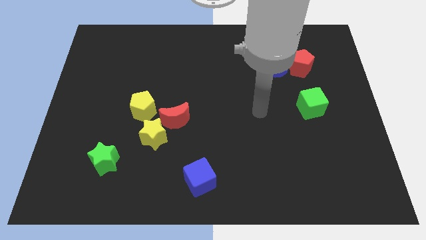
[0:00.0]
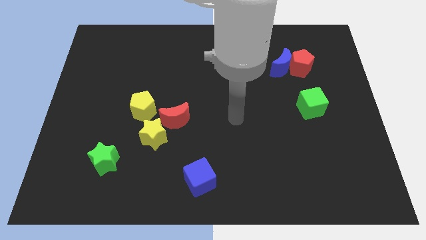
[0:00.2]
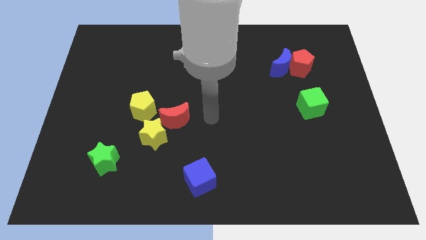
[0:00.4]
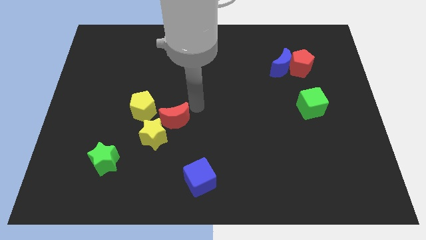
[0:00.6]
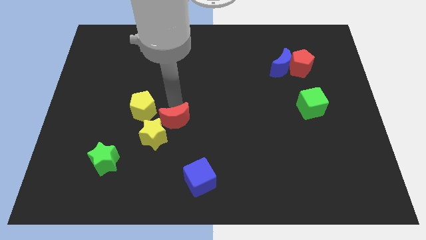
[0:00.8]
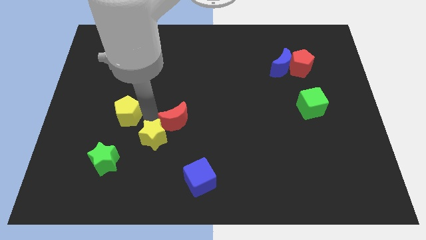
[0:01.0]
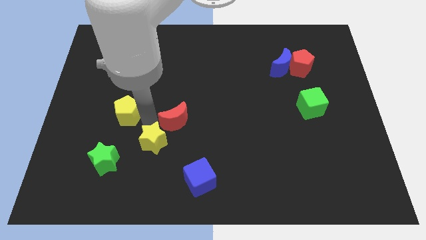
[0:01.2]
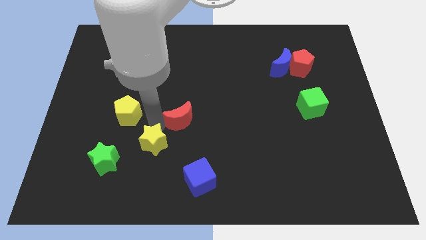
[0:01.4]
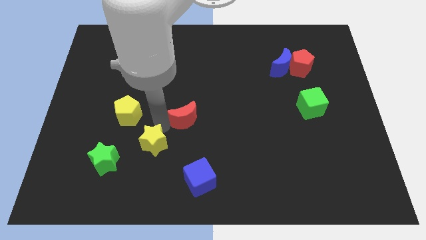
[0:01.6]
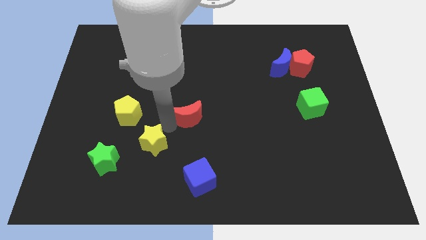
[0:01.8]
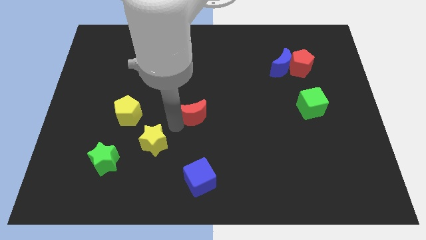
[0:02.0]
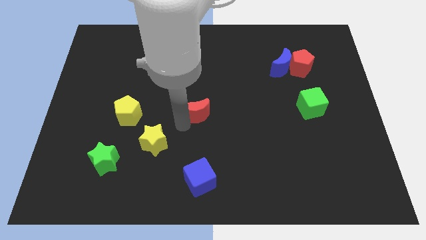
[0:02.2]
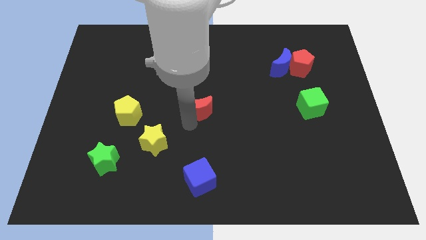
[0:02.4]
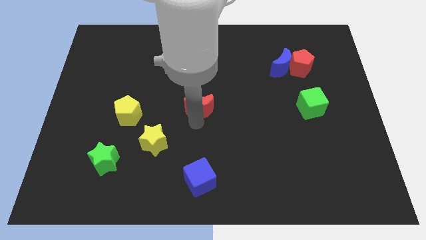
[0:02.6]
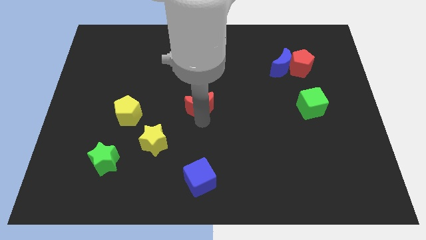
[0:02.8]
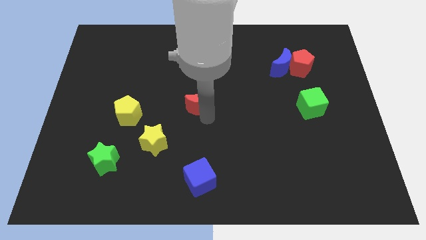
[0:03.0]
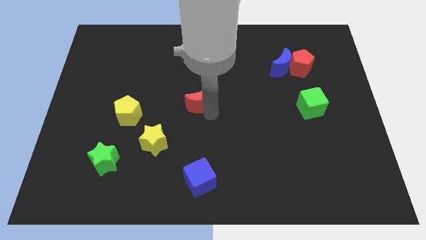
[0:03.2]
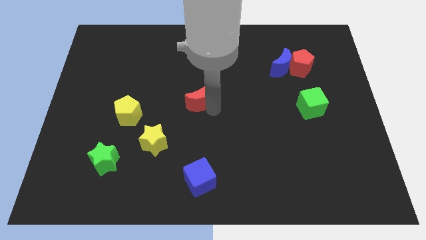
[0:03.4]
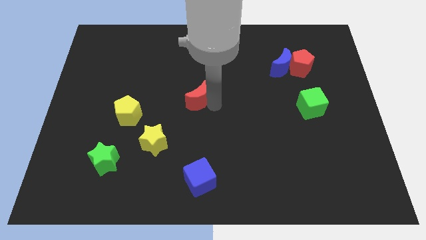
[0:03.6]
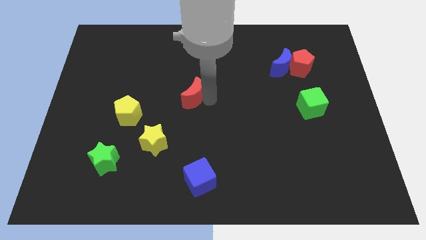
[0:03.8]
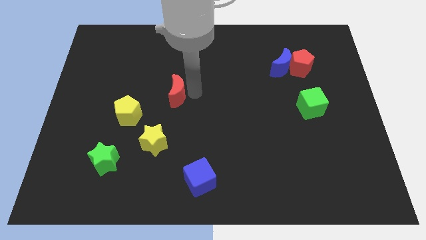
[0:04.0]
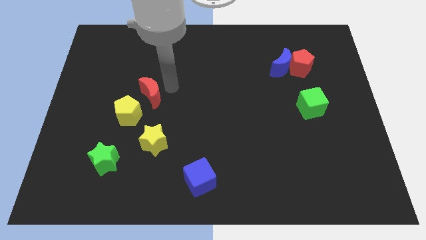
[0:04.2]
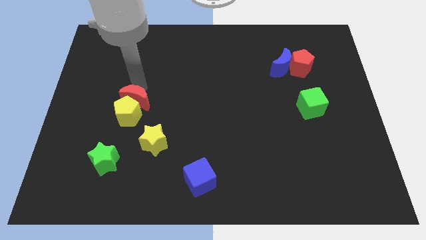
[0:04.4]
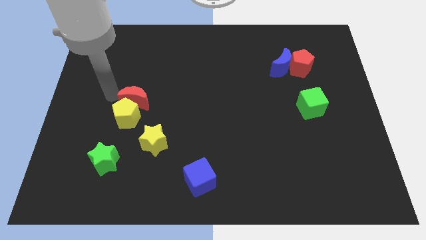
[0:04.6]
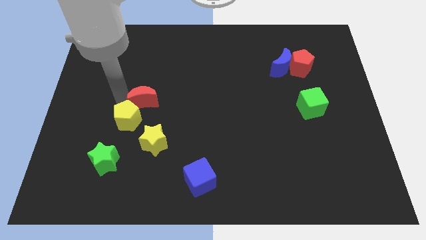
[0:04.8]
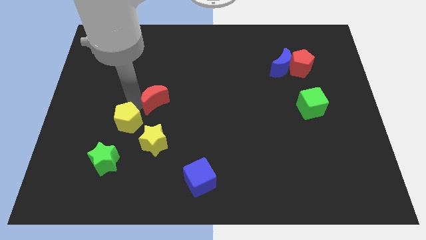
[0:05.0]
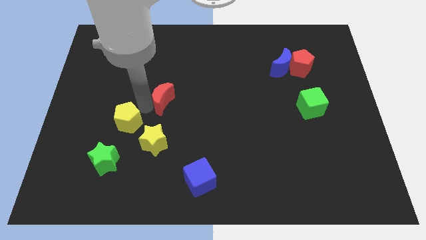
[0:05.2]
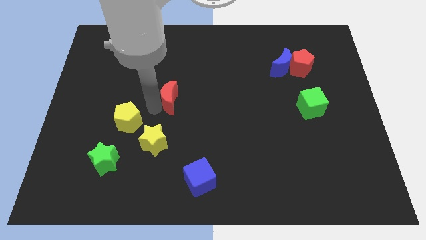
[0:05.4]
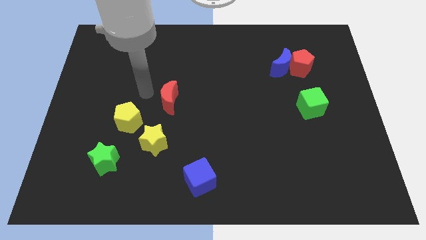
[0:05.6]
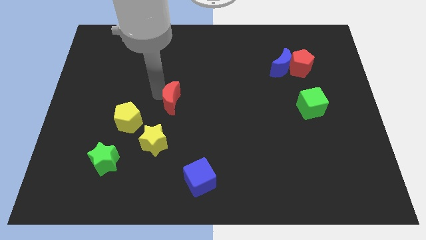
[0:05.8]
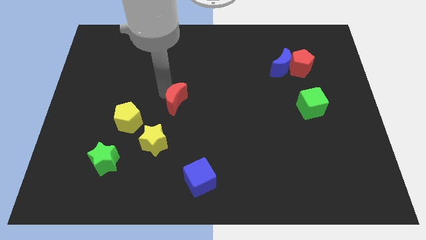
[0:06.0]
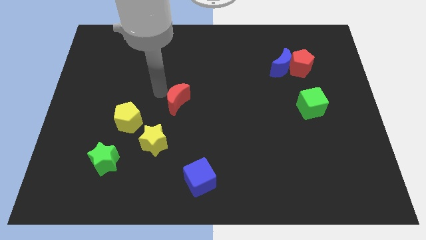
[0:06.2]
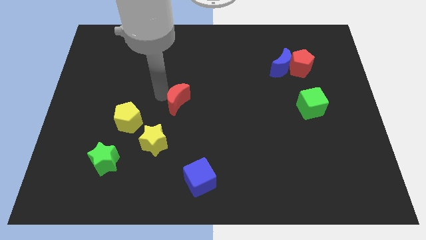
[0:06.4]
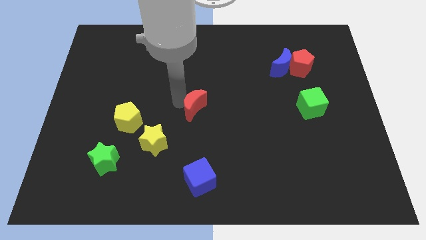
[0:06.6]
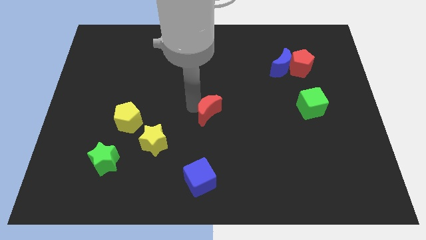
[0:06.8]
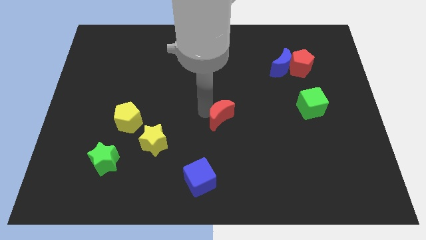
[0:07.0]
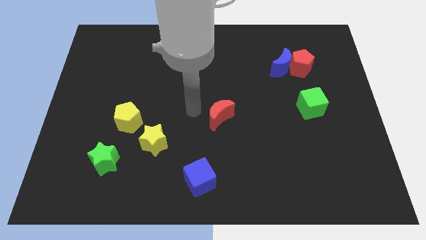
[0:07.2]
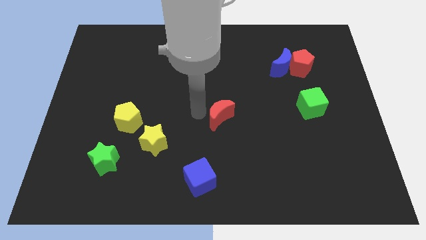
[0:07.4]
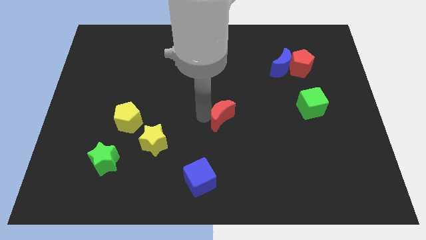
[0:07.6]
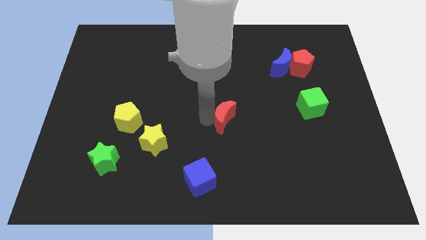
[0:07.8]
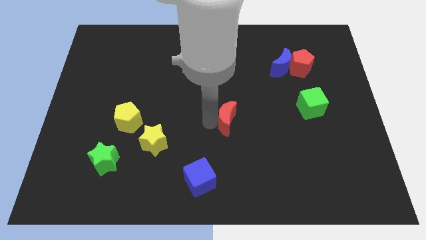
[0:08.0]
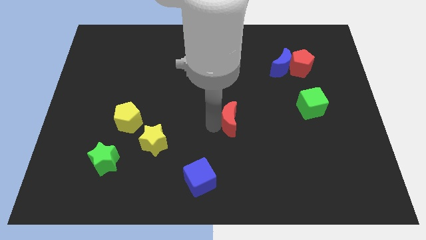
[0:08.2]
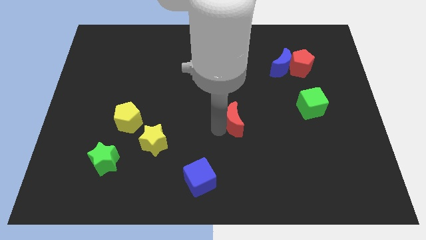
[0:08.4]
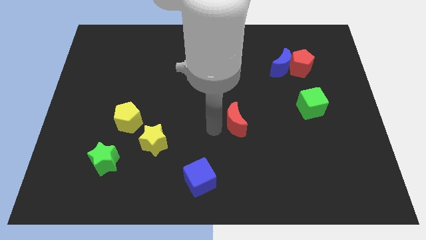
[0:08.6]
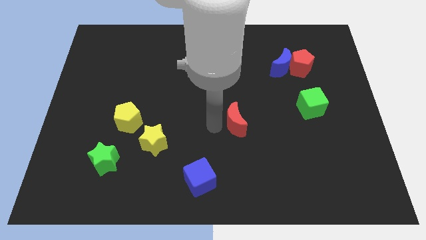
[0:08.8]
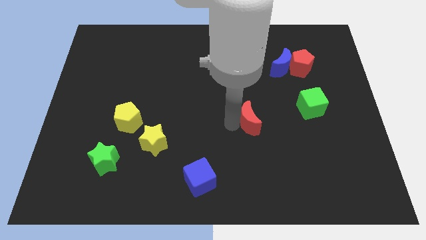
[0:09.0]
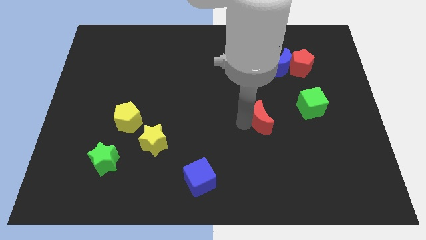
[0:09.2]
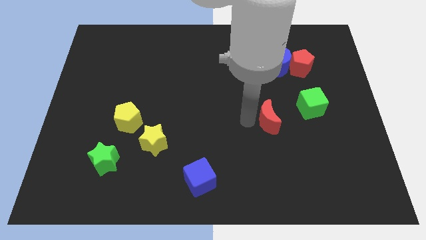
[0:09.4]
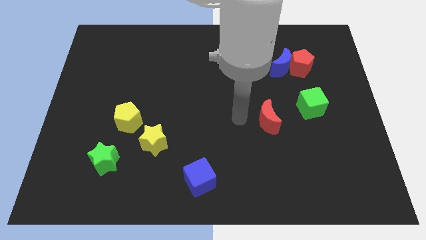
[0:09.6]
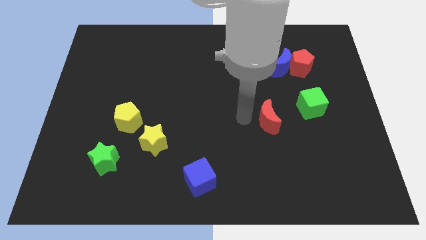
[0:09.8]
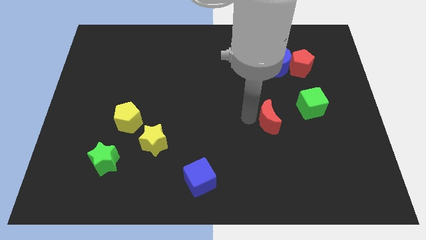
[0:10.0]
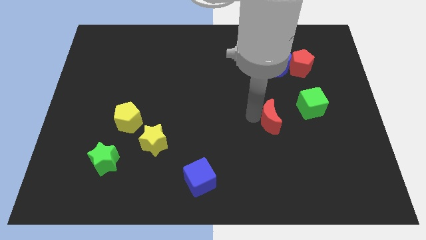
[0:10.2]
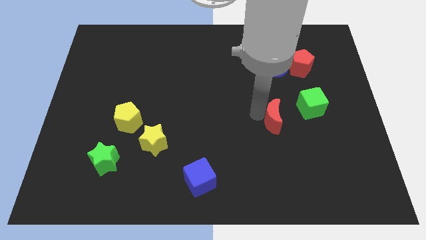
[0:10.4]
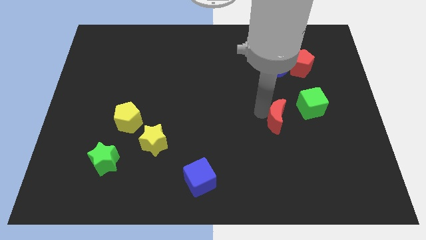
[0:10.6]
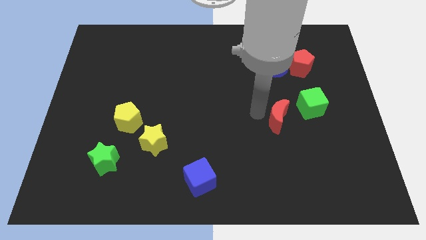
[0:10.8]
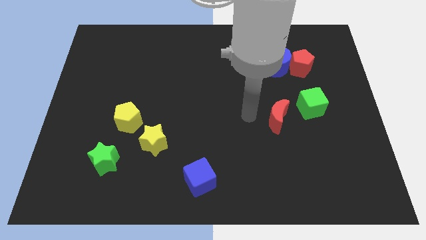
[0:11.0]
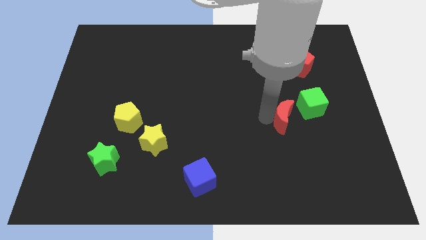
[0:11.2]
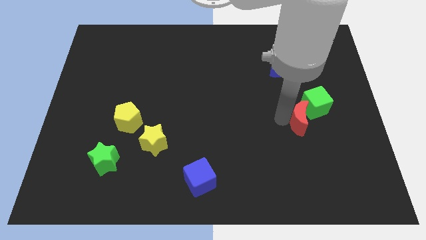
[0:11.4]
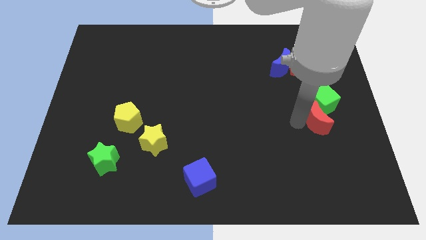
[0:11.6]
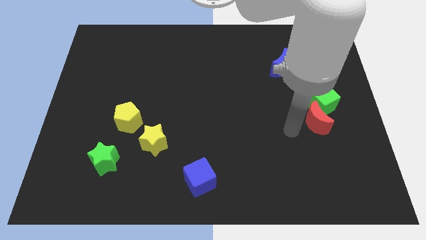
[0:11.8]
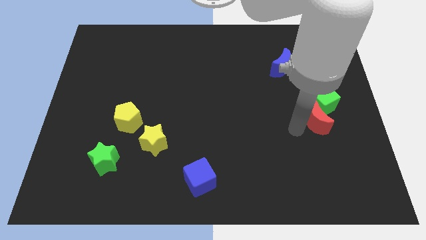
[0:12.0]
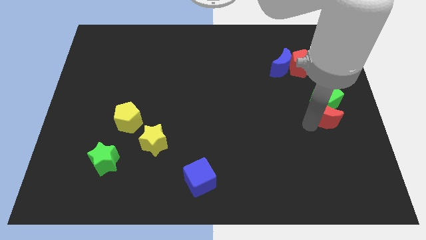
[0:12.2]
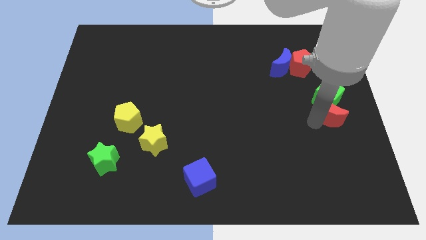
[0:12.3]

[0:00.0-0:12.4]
put the red moon to the center right

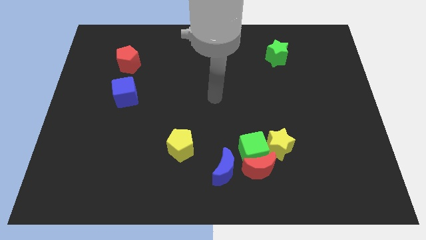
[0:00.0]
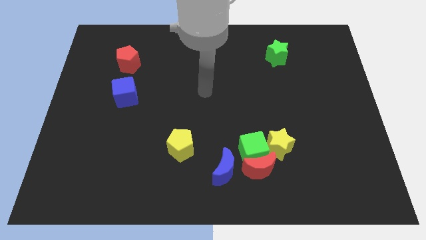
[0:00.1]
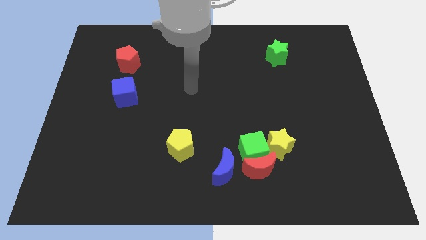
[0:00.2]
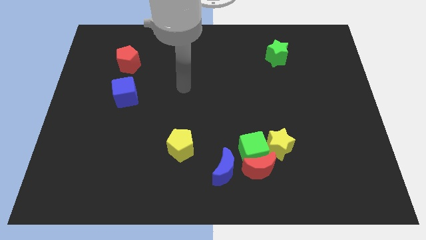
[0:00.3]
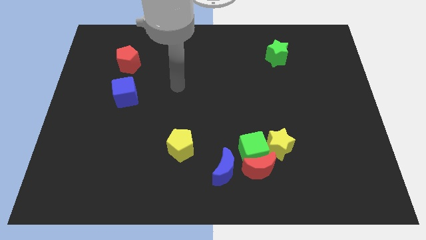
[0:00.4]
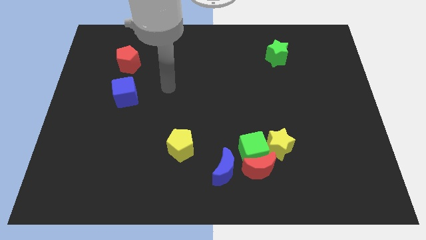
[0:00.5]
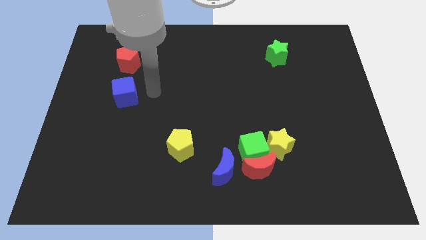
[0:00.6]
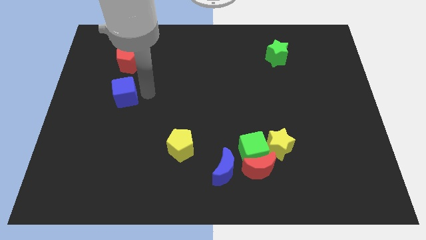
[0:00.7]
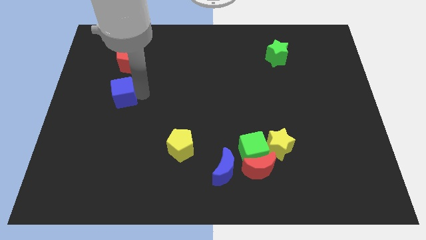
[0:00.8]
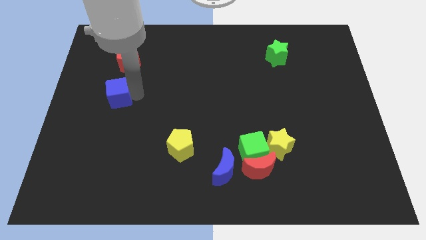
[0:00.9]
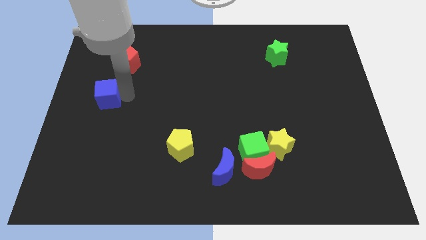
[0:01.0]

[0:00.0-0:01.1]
put the blue cube to the left side
